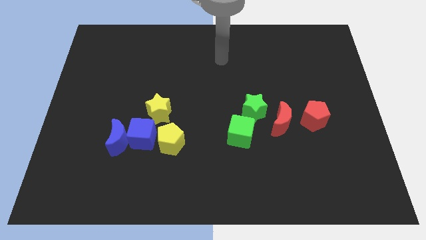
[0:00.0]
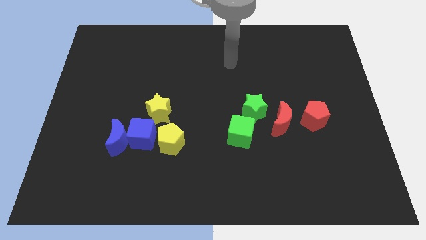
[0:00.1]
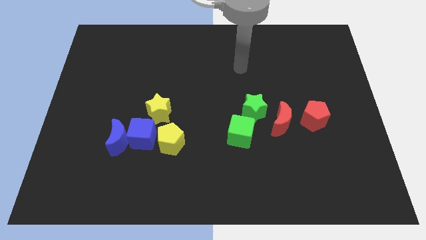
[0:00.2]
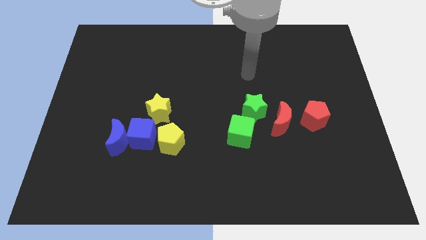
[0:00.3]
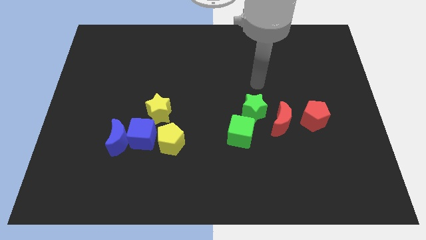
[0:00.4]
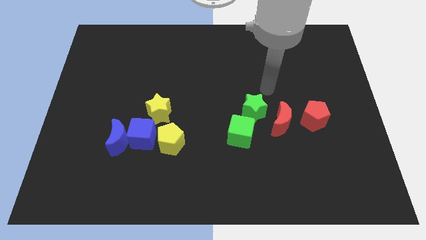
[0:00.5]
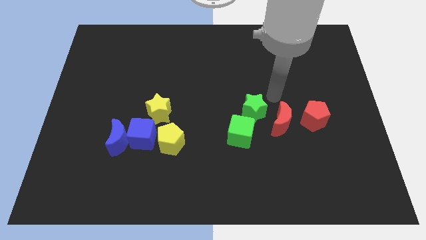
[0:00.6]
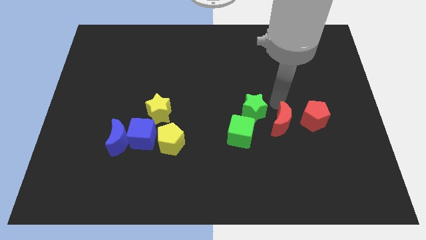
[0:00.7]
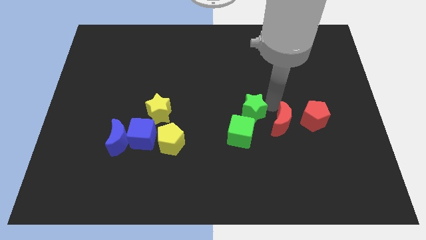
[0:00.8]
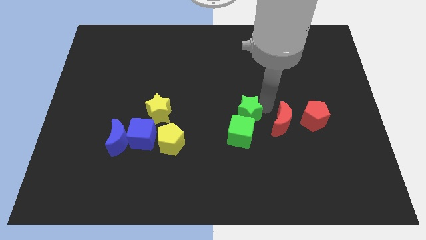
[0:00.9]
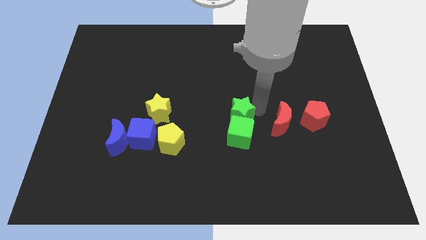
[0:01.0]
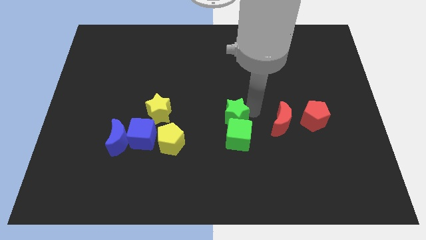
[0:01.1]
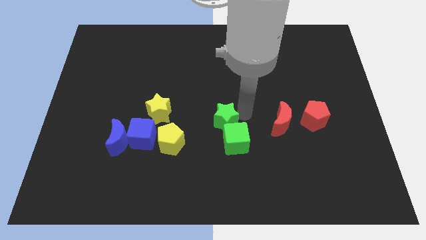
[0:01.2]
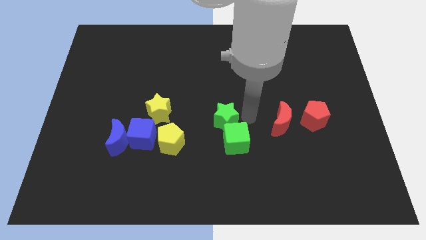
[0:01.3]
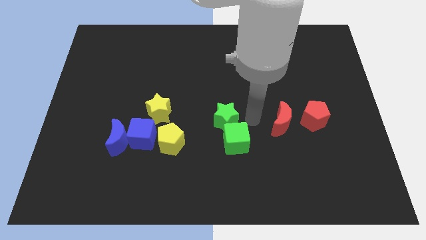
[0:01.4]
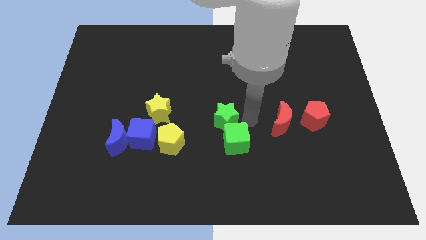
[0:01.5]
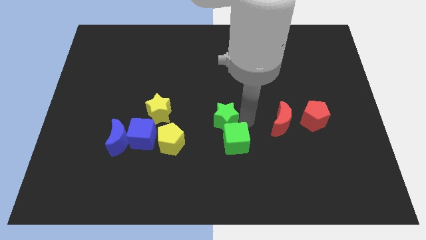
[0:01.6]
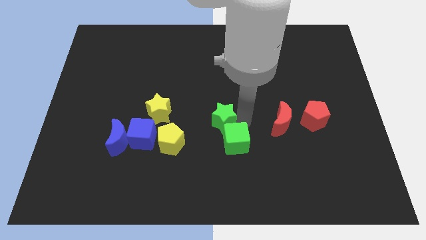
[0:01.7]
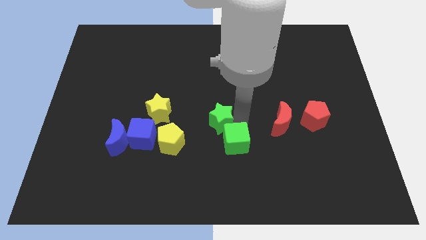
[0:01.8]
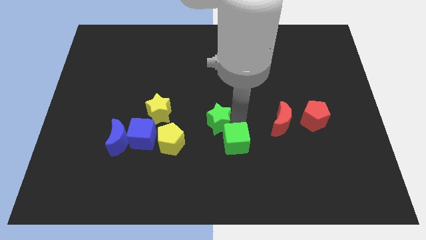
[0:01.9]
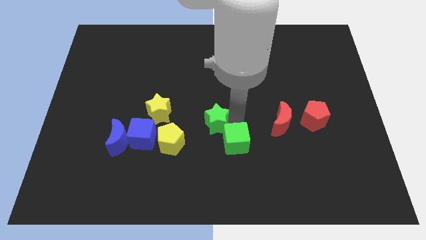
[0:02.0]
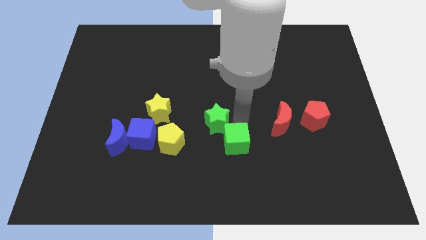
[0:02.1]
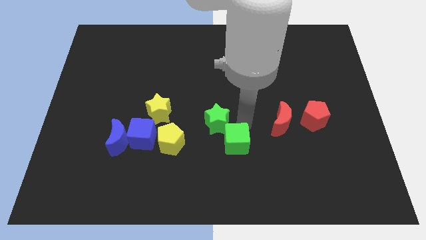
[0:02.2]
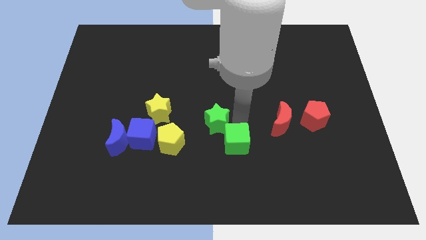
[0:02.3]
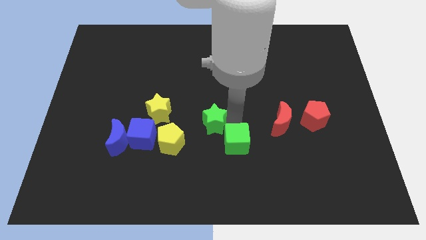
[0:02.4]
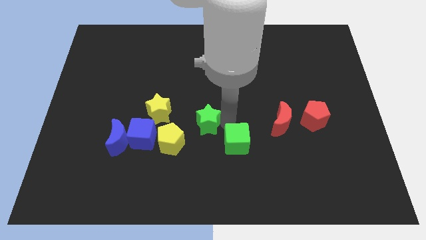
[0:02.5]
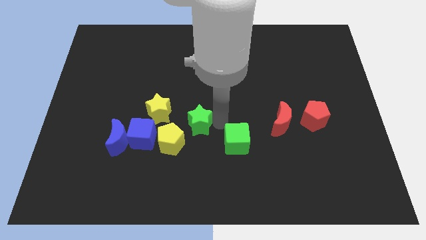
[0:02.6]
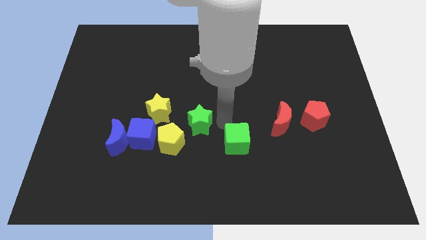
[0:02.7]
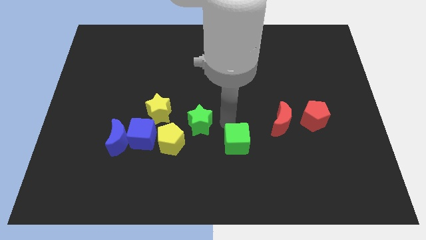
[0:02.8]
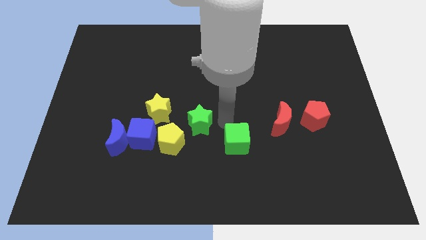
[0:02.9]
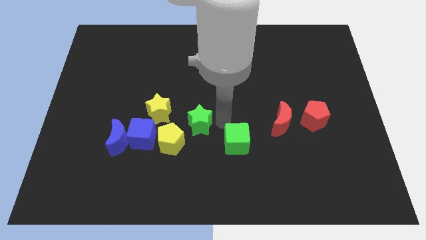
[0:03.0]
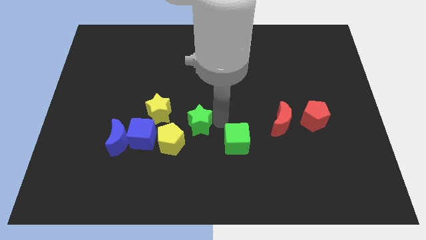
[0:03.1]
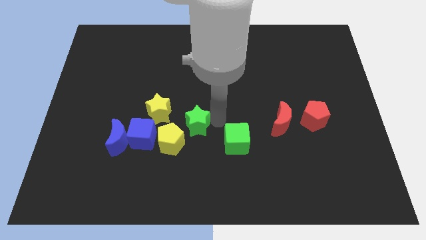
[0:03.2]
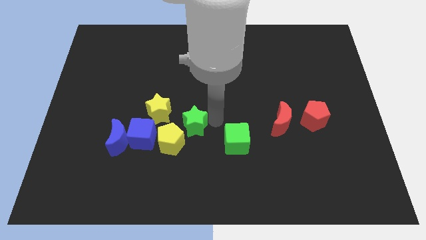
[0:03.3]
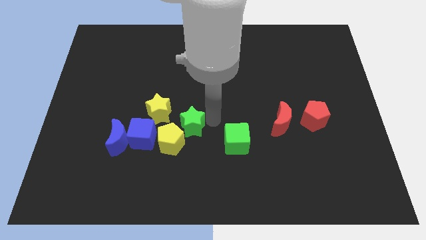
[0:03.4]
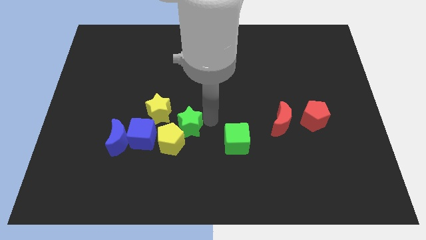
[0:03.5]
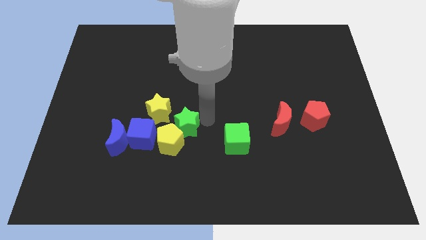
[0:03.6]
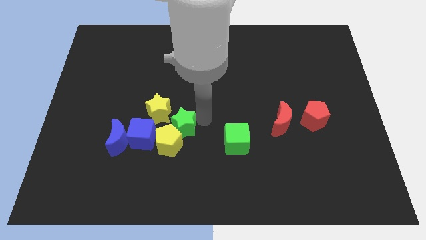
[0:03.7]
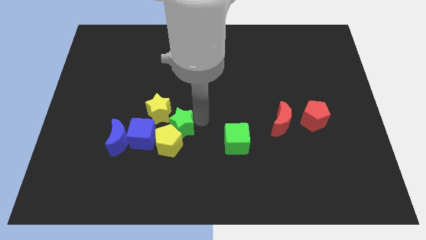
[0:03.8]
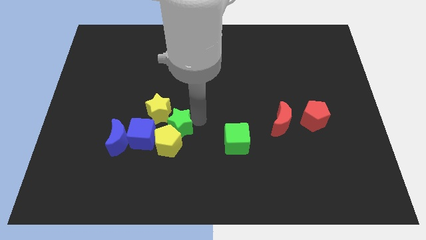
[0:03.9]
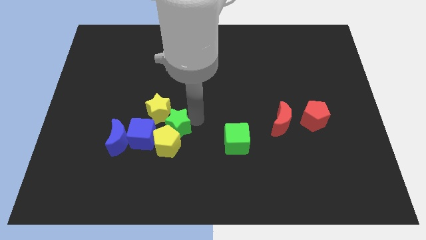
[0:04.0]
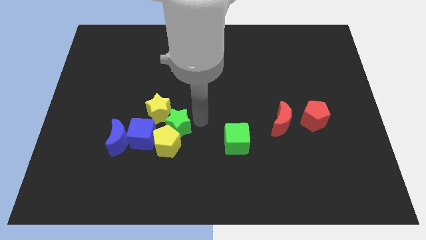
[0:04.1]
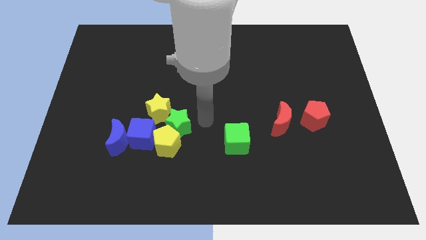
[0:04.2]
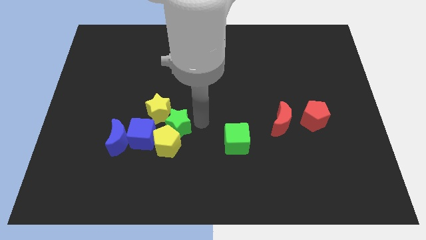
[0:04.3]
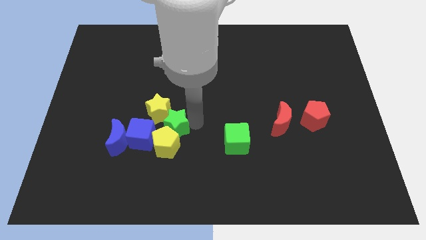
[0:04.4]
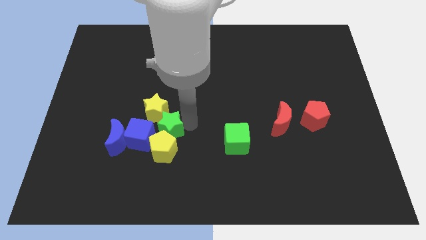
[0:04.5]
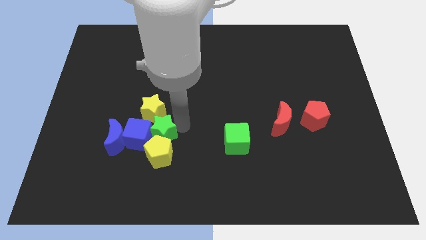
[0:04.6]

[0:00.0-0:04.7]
put the green star to the blue cube

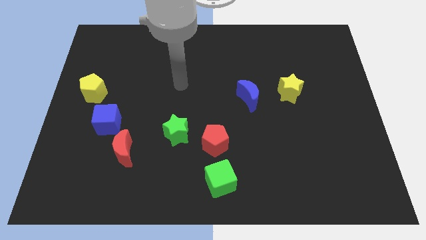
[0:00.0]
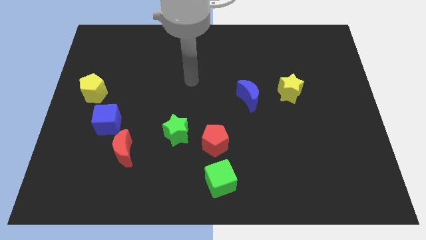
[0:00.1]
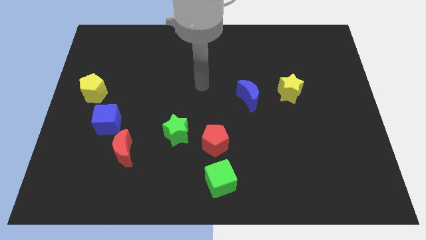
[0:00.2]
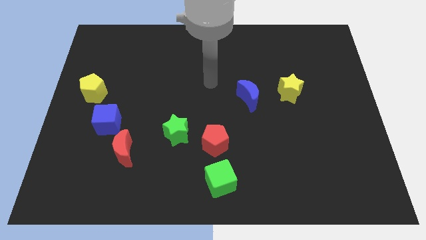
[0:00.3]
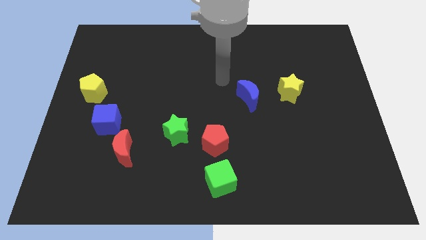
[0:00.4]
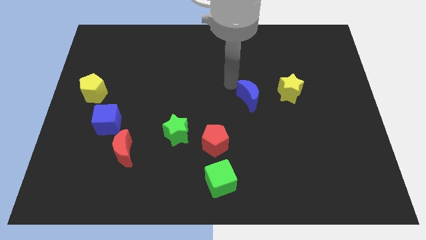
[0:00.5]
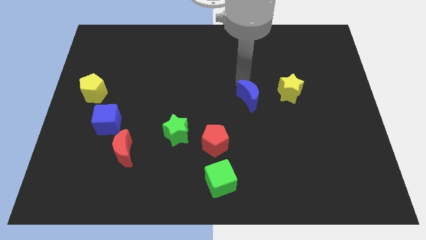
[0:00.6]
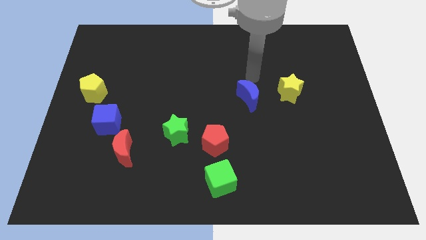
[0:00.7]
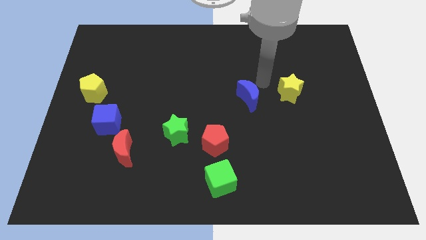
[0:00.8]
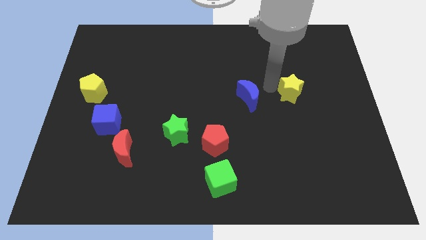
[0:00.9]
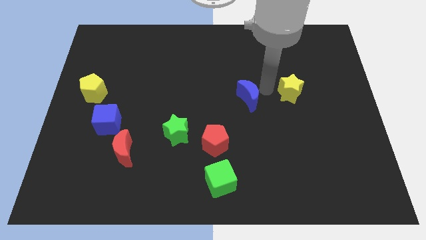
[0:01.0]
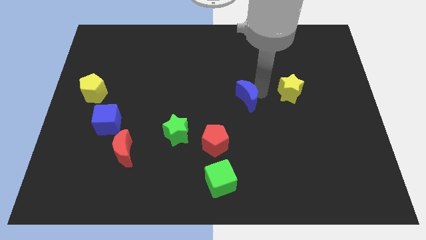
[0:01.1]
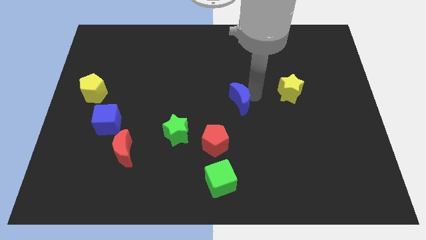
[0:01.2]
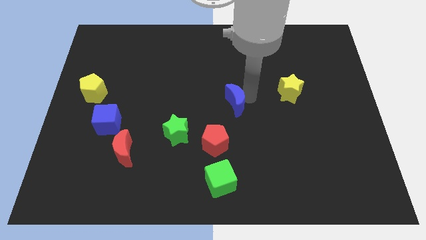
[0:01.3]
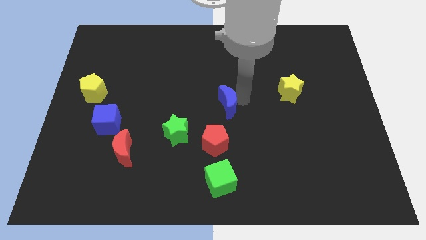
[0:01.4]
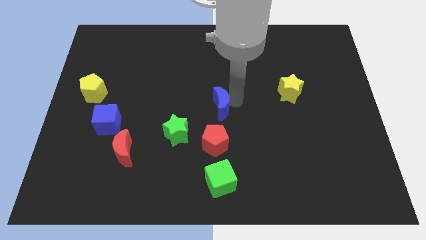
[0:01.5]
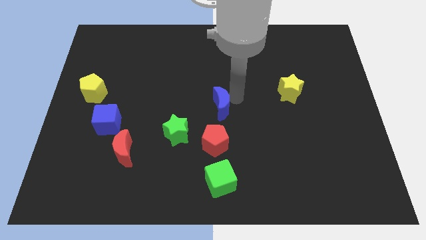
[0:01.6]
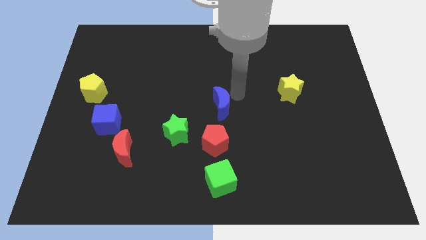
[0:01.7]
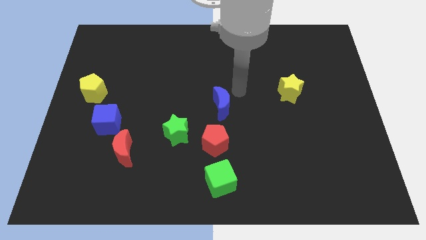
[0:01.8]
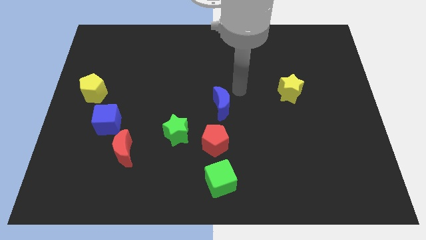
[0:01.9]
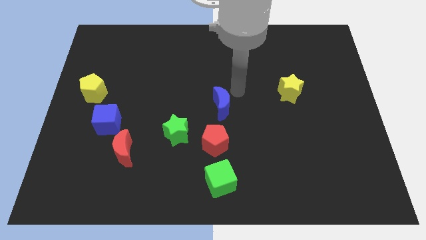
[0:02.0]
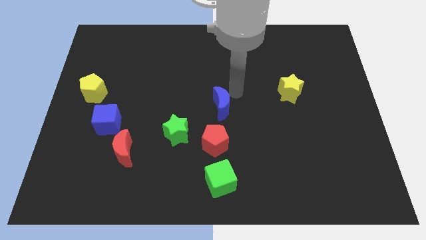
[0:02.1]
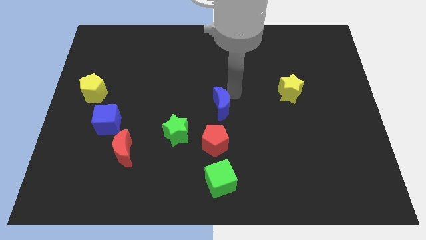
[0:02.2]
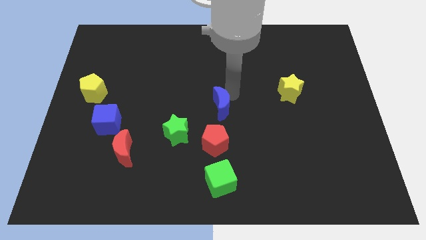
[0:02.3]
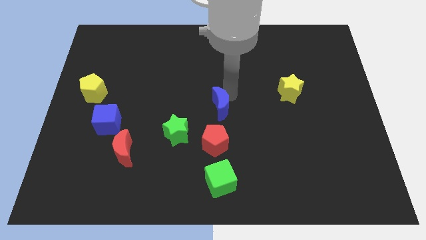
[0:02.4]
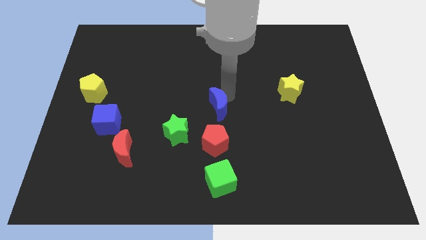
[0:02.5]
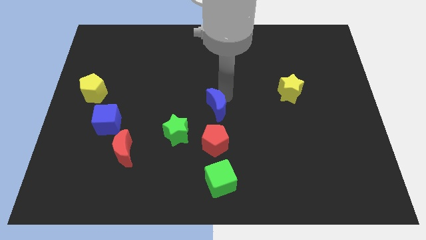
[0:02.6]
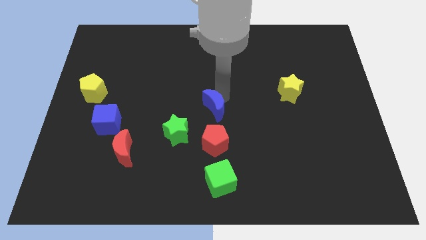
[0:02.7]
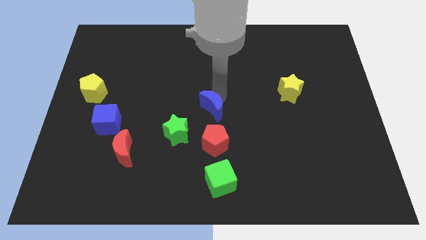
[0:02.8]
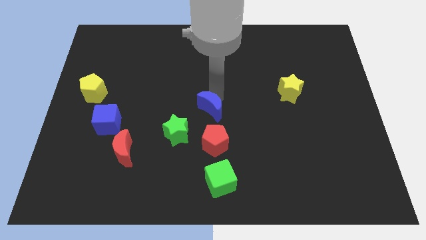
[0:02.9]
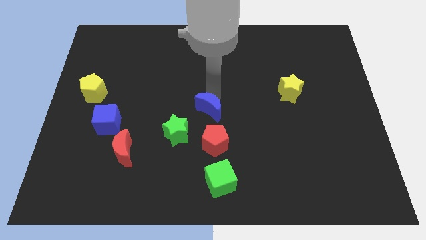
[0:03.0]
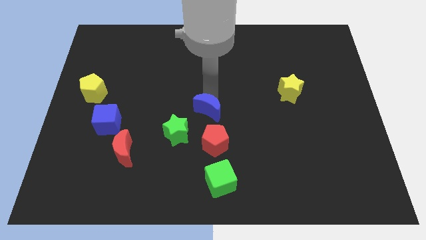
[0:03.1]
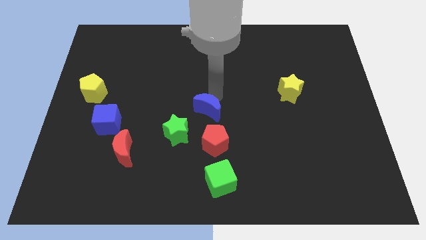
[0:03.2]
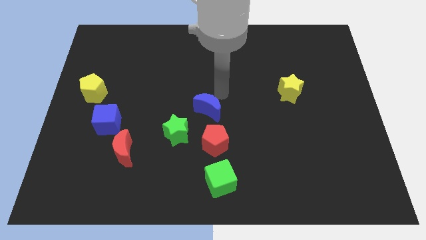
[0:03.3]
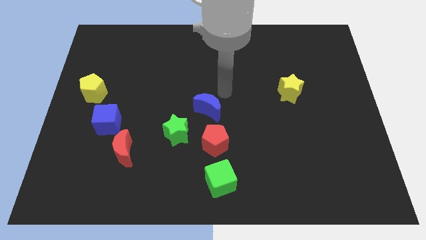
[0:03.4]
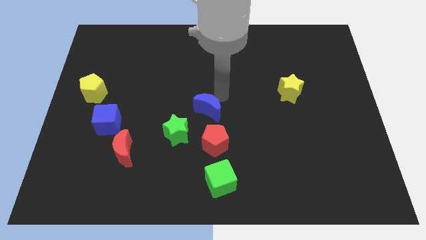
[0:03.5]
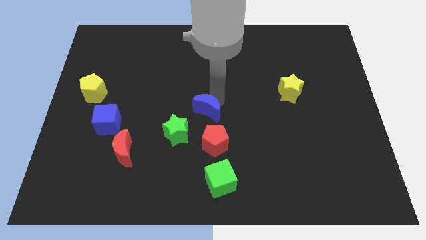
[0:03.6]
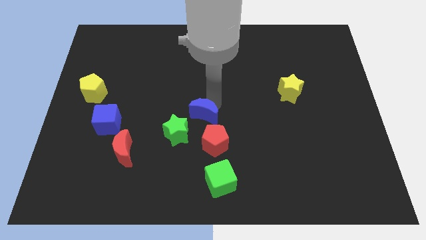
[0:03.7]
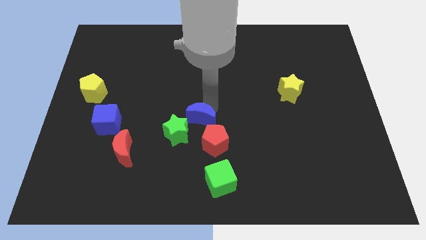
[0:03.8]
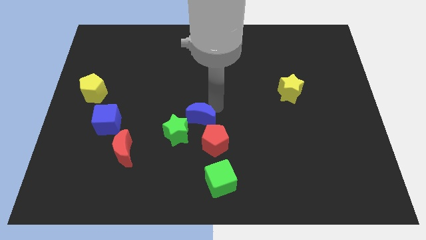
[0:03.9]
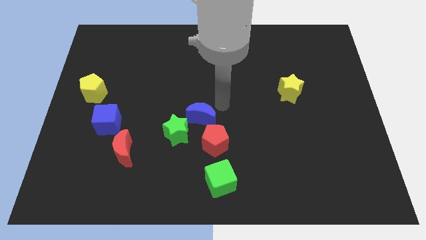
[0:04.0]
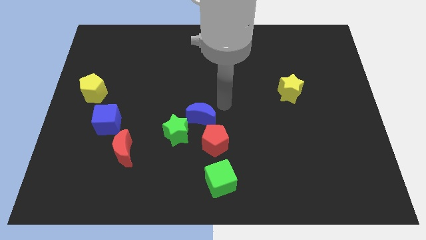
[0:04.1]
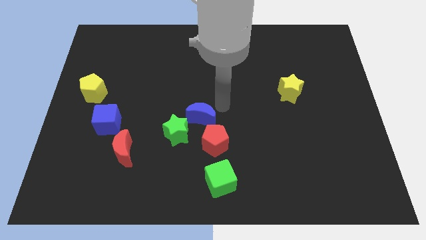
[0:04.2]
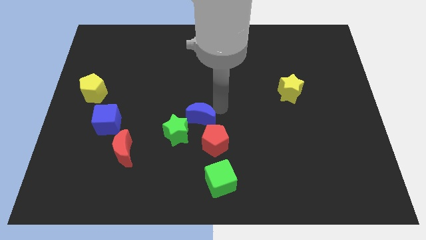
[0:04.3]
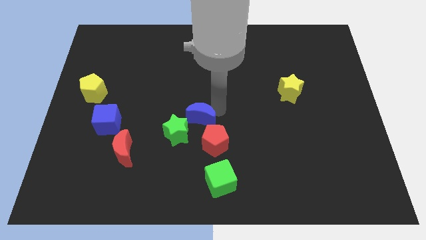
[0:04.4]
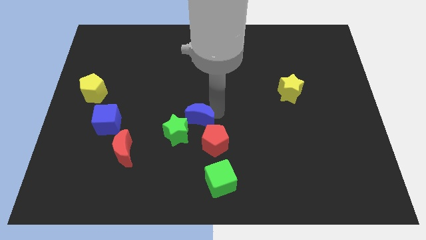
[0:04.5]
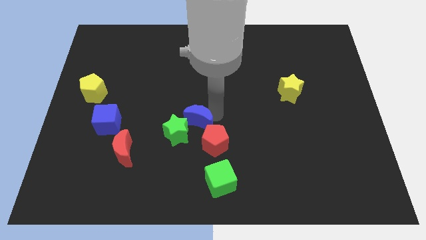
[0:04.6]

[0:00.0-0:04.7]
slide the blue moon to the green star
